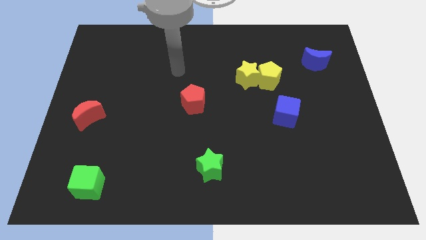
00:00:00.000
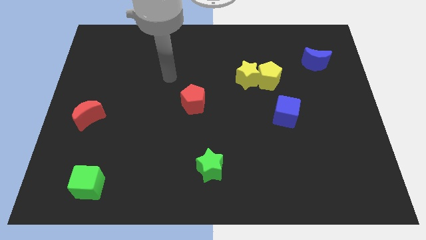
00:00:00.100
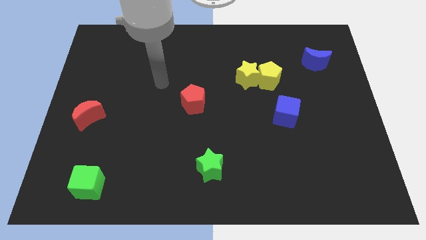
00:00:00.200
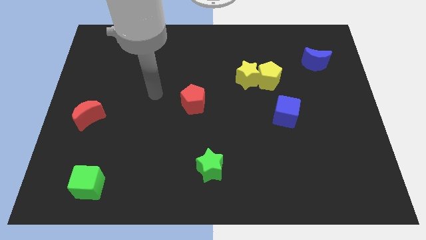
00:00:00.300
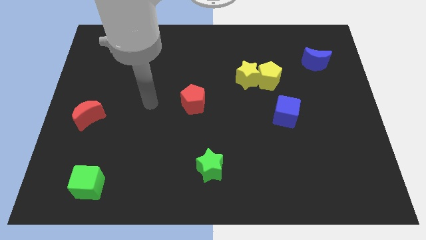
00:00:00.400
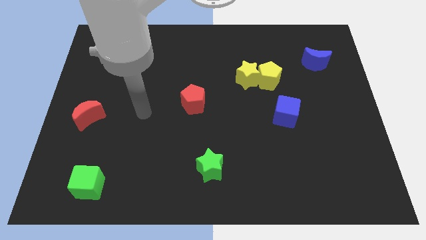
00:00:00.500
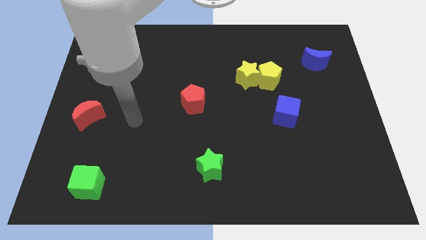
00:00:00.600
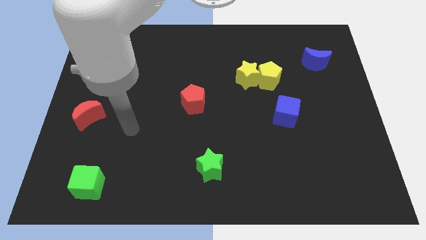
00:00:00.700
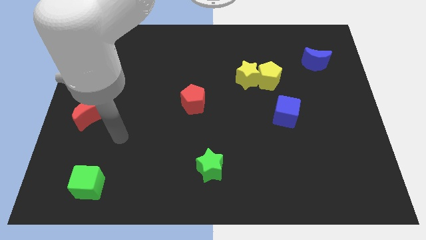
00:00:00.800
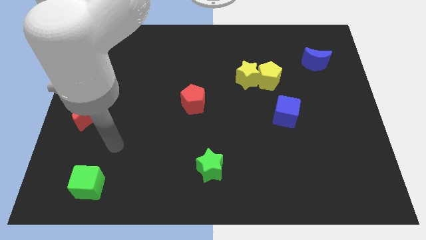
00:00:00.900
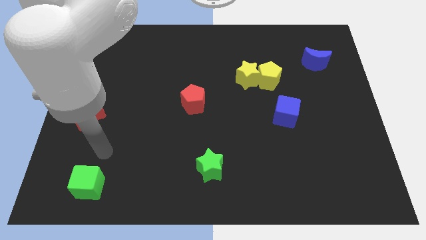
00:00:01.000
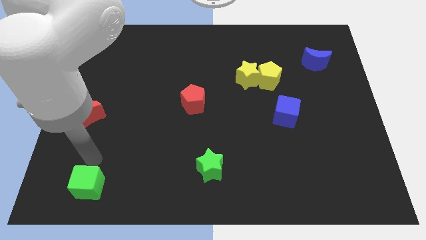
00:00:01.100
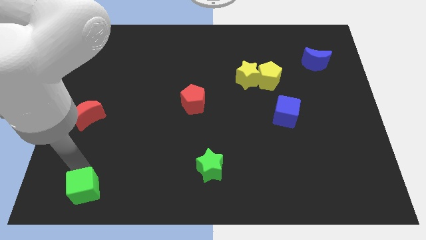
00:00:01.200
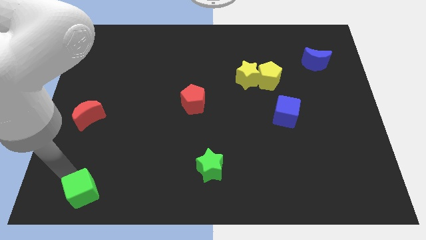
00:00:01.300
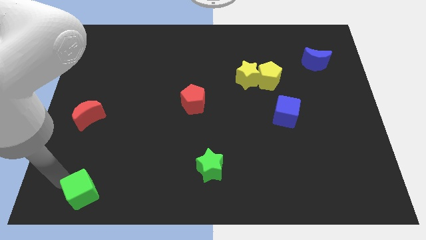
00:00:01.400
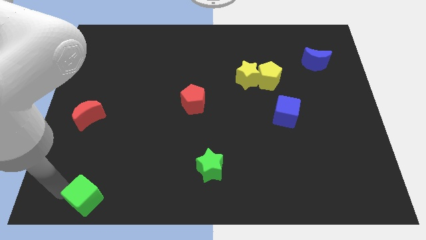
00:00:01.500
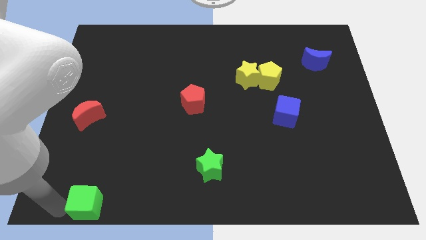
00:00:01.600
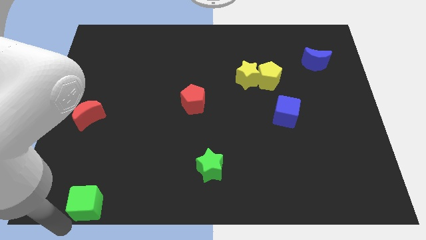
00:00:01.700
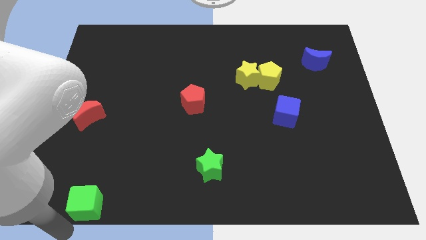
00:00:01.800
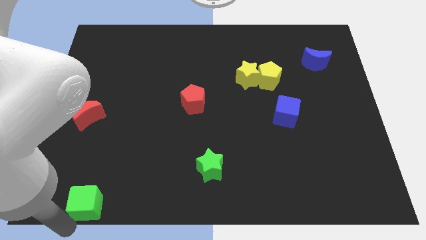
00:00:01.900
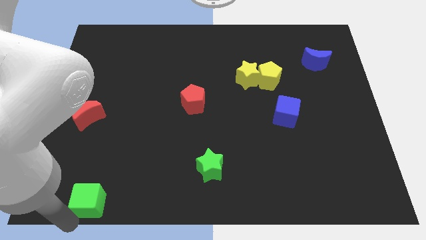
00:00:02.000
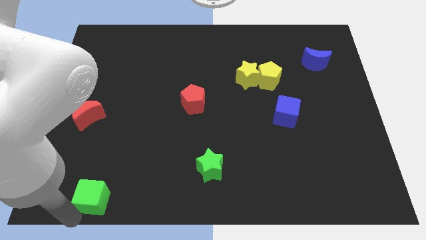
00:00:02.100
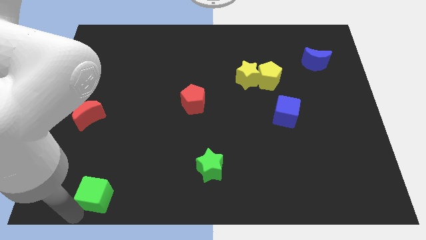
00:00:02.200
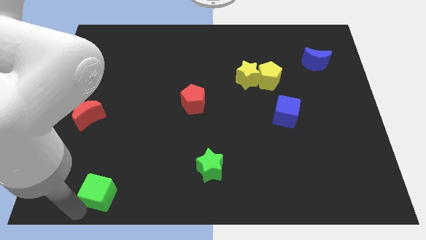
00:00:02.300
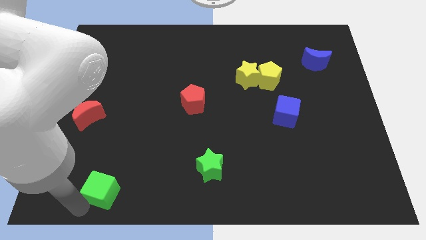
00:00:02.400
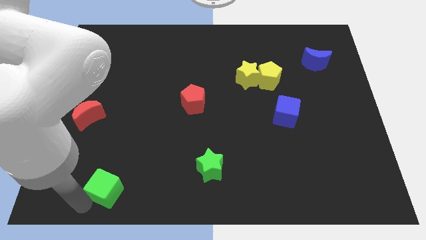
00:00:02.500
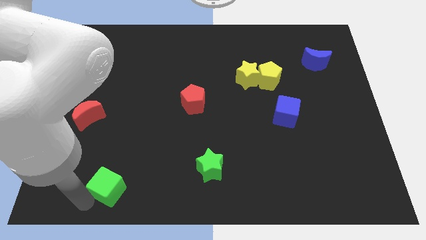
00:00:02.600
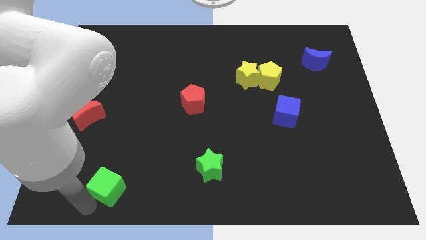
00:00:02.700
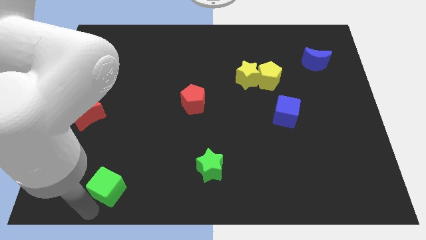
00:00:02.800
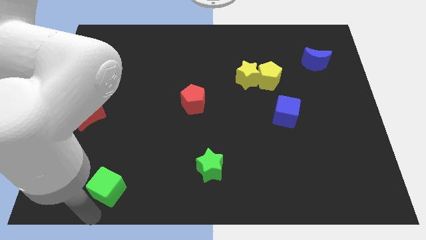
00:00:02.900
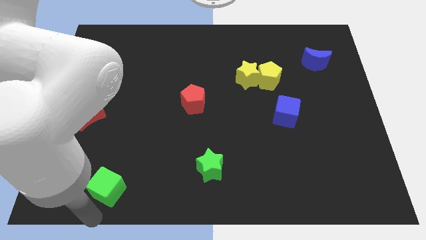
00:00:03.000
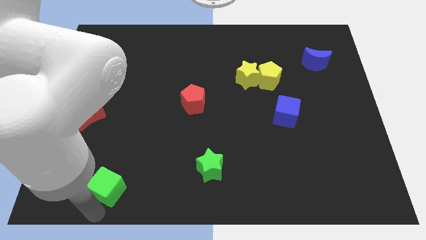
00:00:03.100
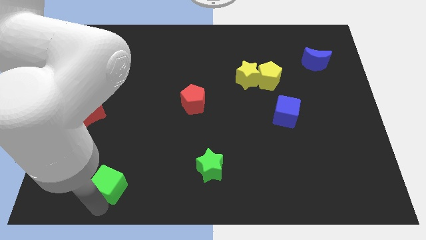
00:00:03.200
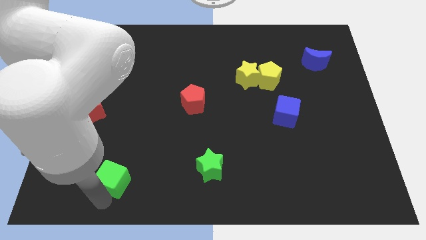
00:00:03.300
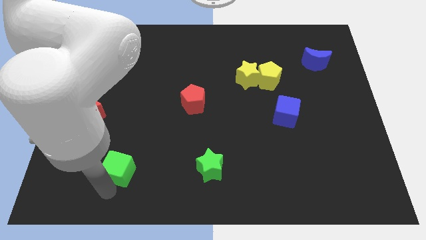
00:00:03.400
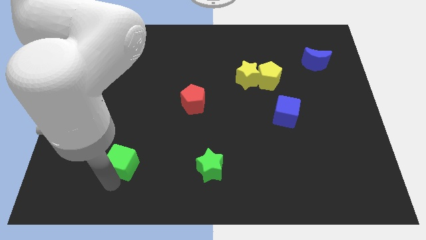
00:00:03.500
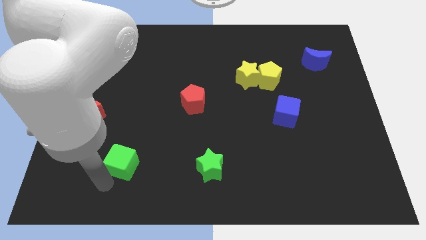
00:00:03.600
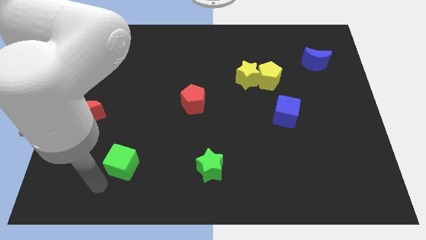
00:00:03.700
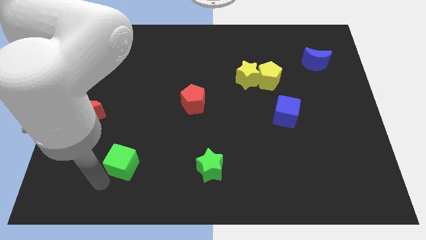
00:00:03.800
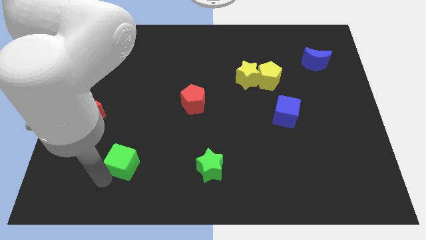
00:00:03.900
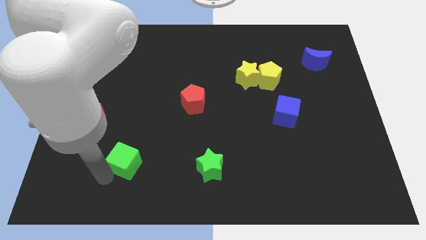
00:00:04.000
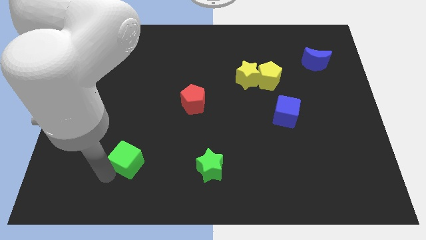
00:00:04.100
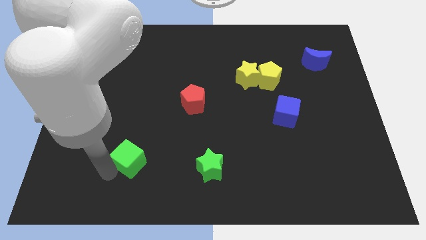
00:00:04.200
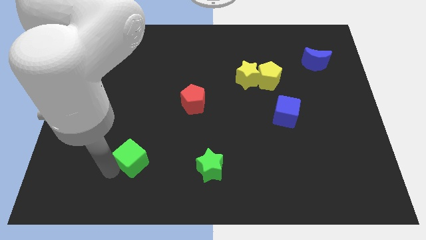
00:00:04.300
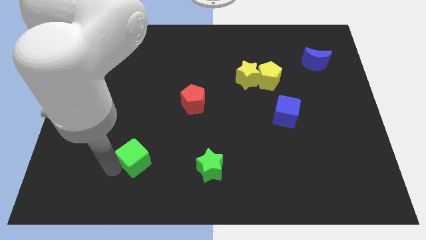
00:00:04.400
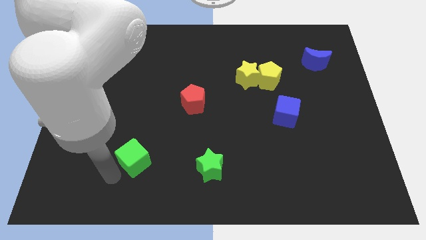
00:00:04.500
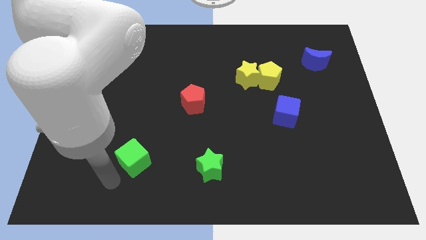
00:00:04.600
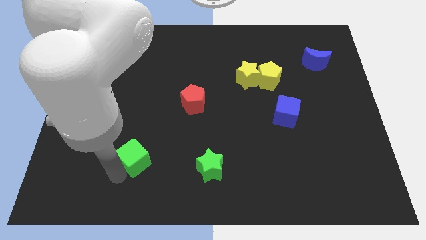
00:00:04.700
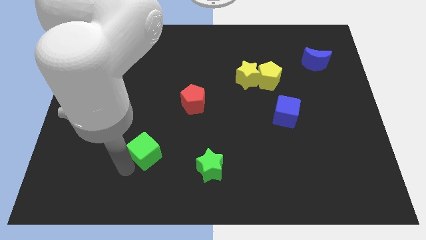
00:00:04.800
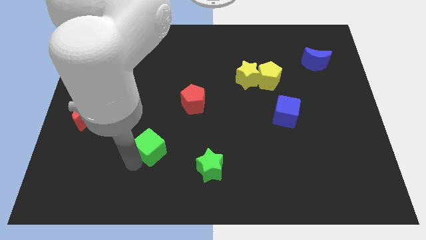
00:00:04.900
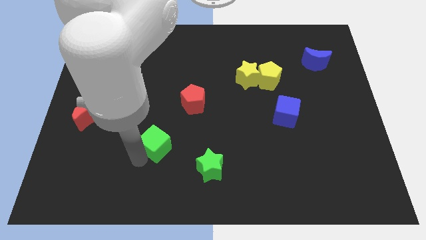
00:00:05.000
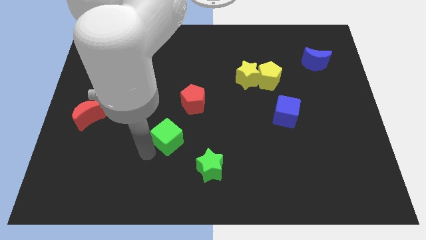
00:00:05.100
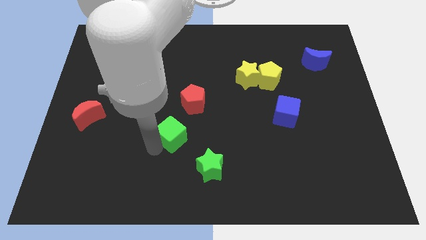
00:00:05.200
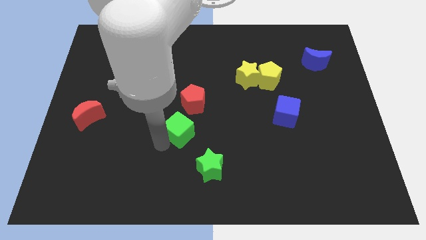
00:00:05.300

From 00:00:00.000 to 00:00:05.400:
move the green cube to the center of the board

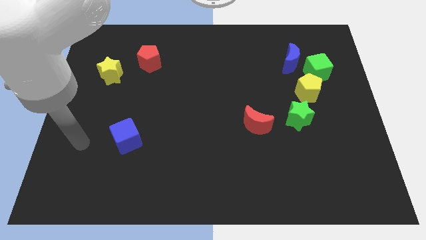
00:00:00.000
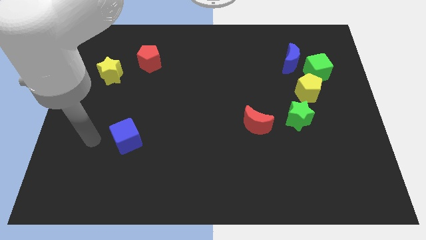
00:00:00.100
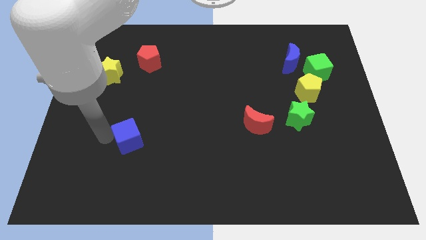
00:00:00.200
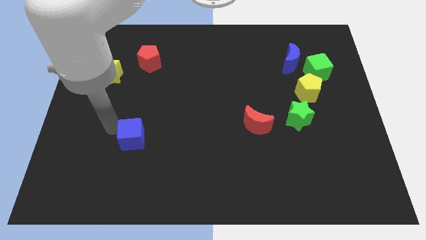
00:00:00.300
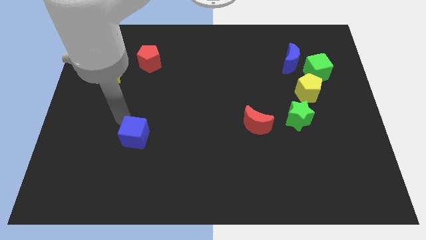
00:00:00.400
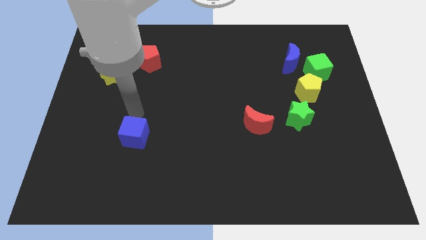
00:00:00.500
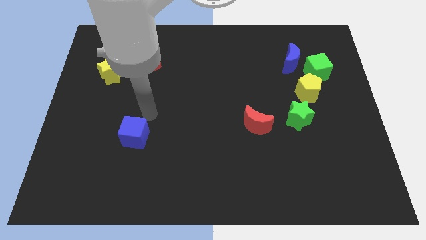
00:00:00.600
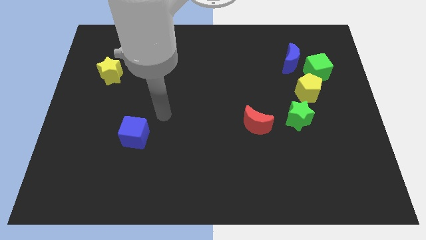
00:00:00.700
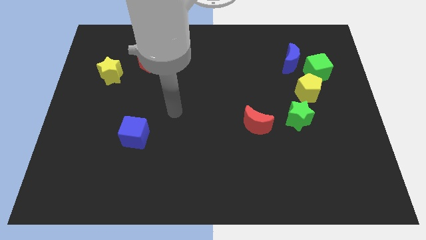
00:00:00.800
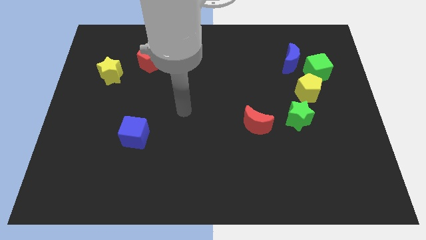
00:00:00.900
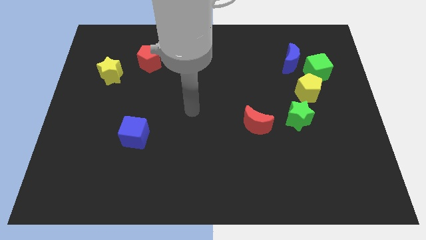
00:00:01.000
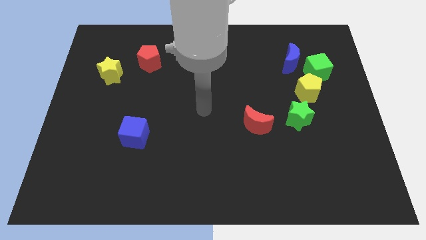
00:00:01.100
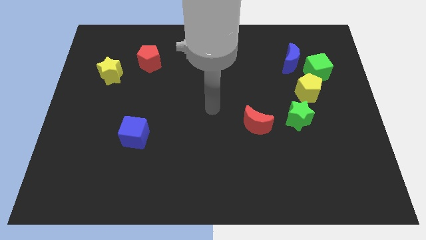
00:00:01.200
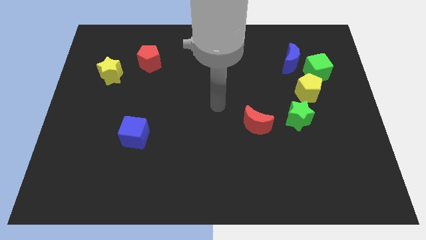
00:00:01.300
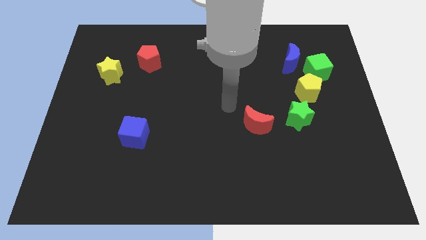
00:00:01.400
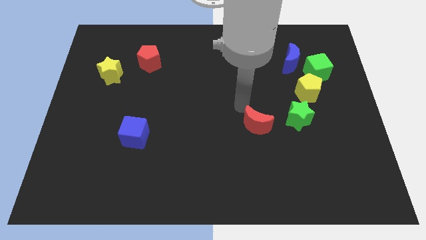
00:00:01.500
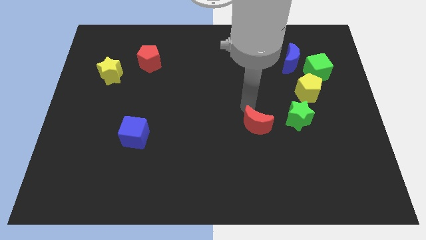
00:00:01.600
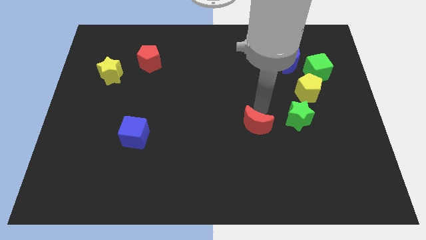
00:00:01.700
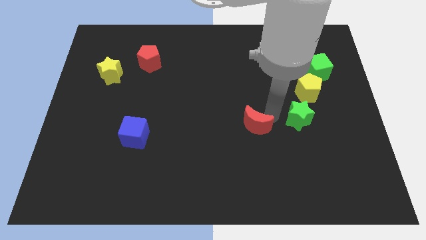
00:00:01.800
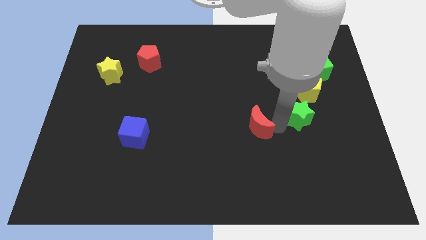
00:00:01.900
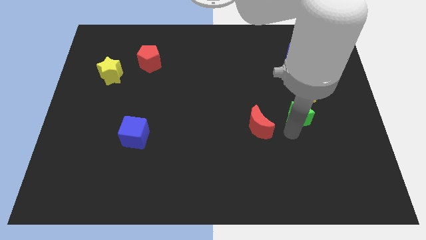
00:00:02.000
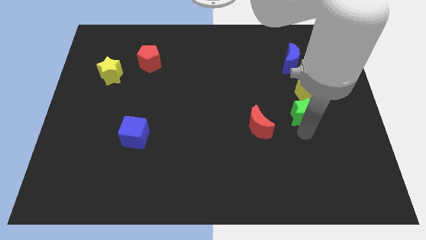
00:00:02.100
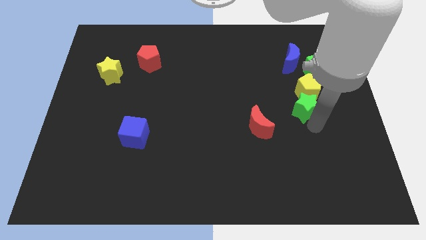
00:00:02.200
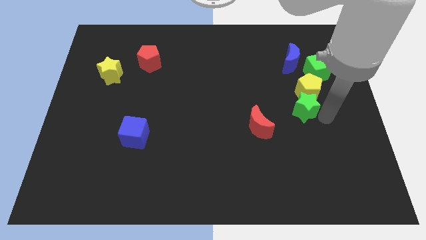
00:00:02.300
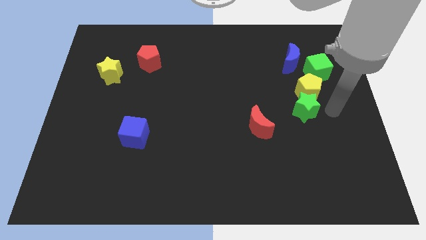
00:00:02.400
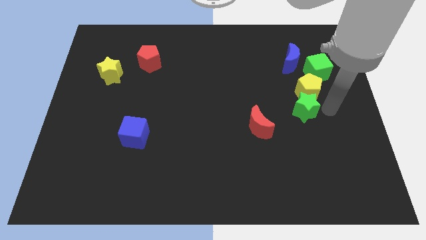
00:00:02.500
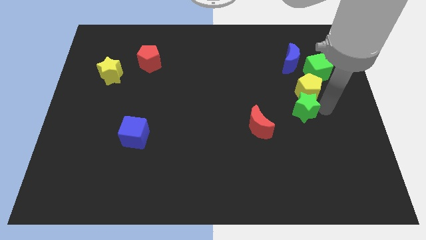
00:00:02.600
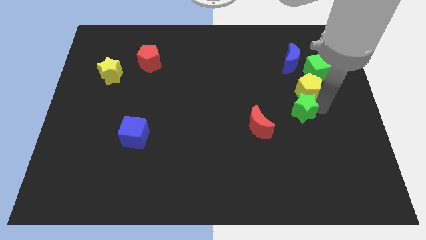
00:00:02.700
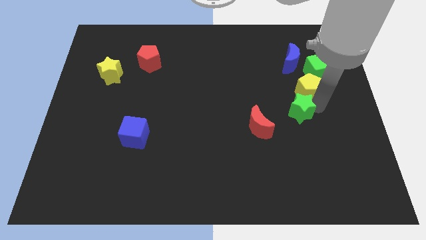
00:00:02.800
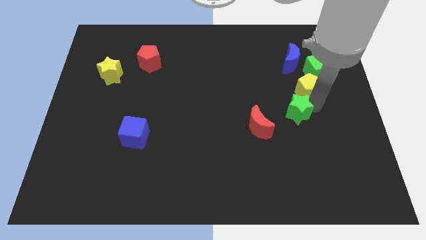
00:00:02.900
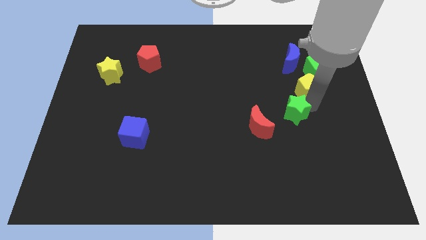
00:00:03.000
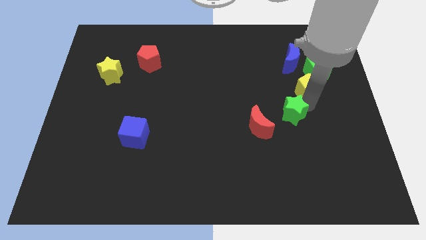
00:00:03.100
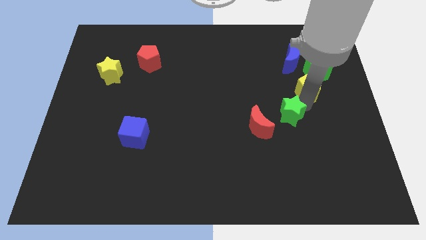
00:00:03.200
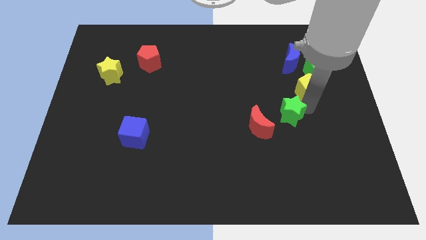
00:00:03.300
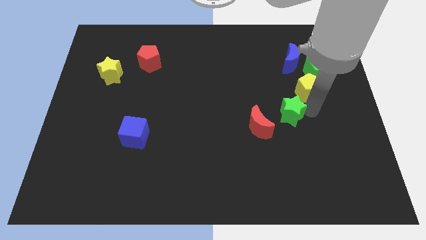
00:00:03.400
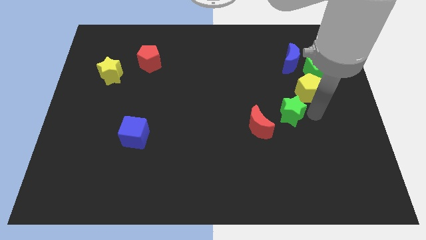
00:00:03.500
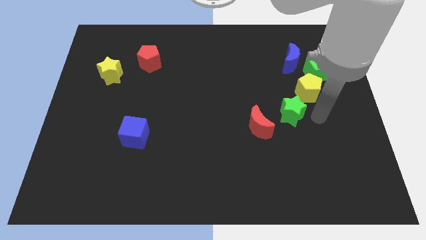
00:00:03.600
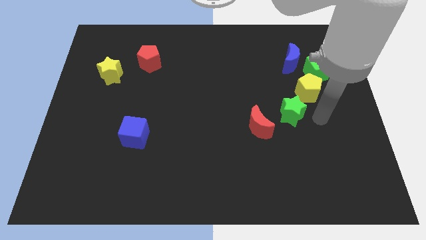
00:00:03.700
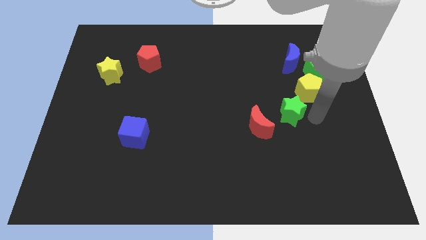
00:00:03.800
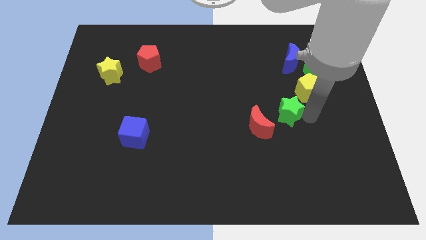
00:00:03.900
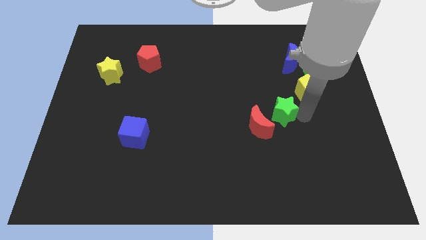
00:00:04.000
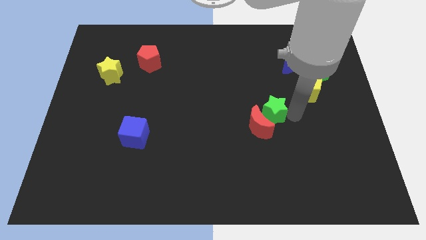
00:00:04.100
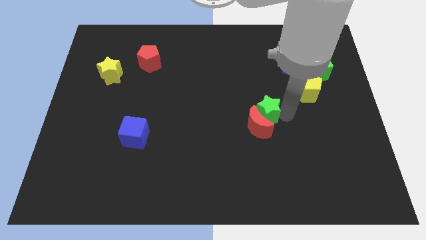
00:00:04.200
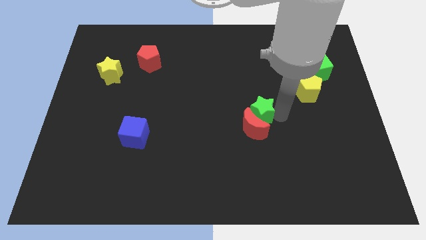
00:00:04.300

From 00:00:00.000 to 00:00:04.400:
slide the green star to the middle of the board
